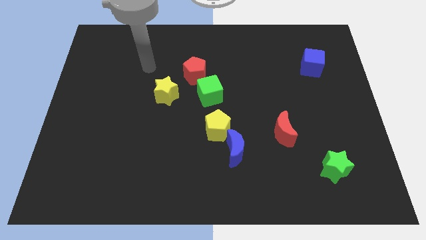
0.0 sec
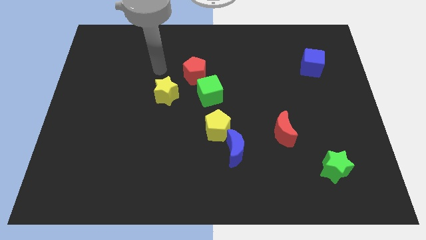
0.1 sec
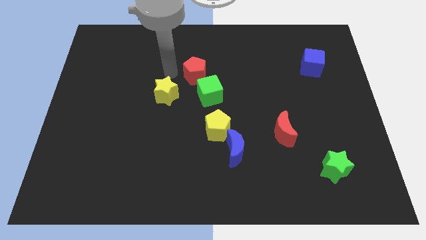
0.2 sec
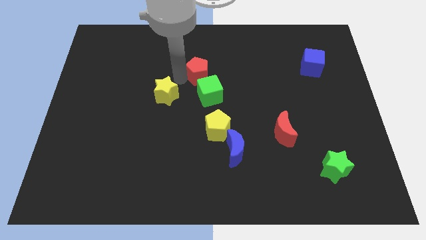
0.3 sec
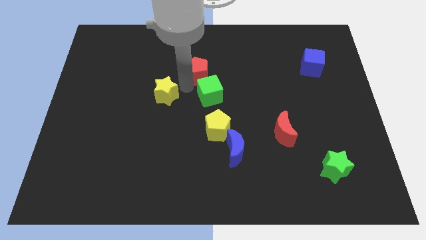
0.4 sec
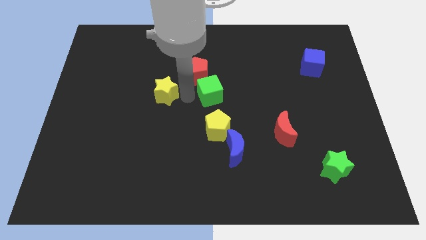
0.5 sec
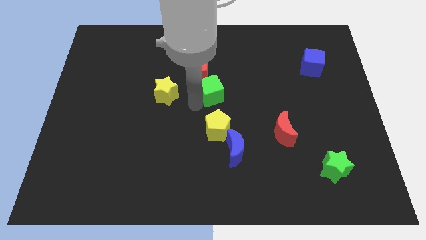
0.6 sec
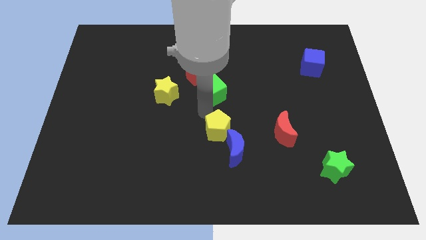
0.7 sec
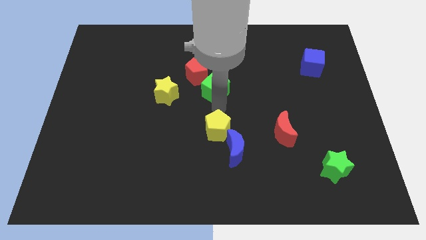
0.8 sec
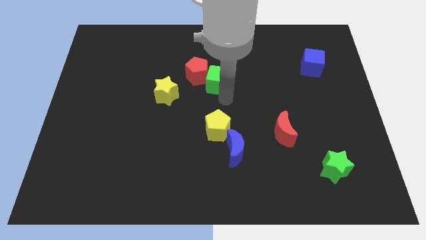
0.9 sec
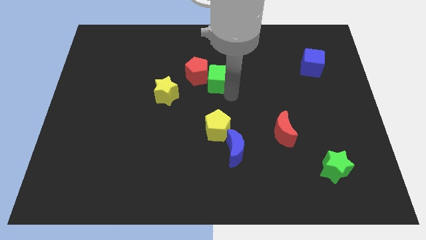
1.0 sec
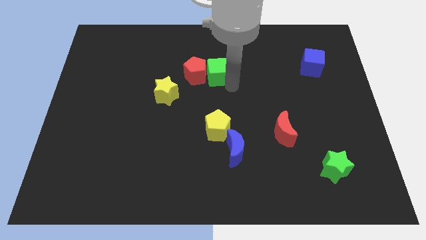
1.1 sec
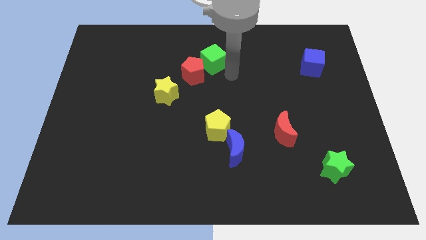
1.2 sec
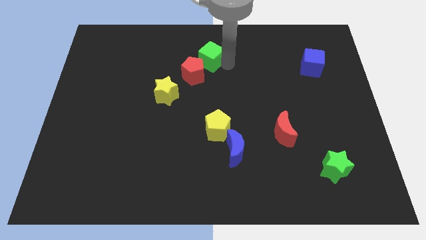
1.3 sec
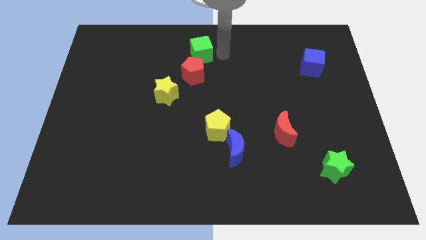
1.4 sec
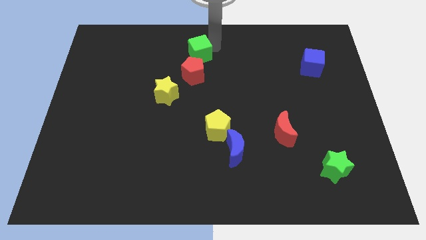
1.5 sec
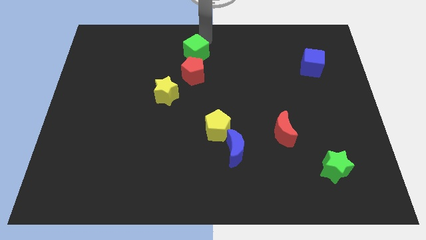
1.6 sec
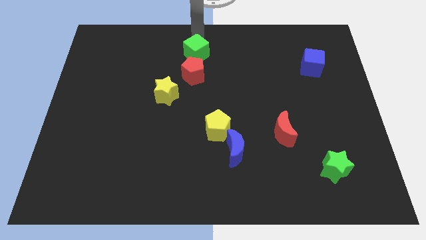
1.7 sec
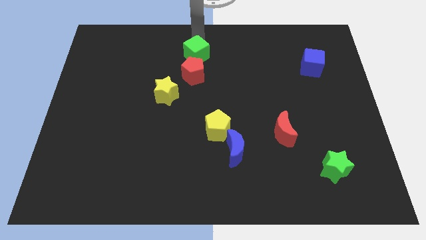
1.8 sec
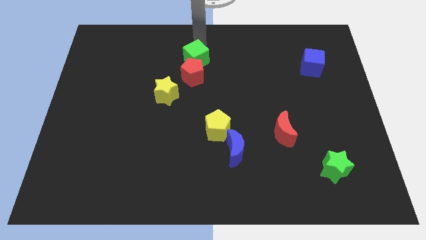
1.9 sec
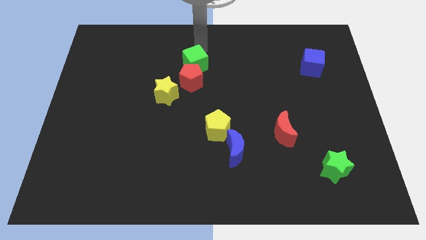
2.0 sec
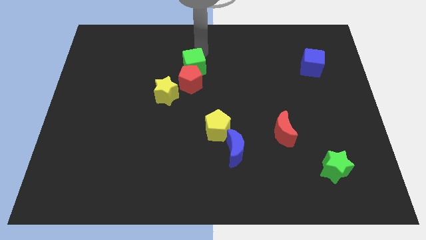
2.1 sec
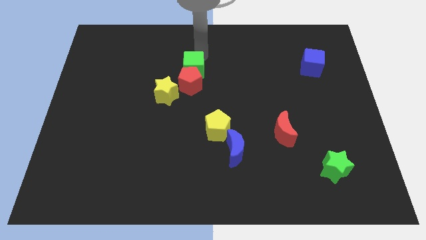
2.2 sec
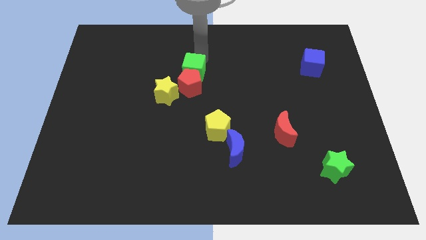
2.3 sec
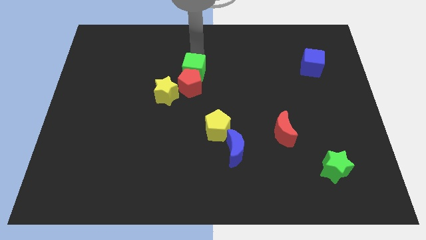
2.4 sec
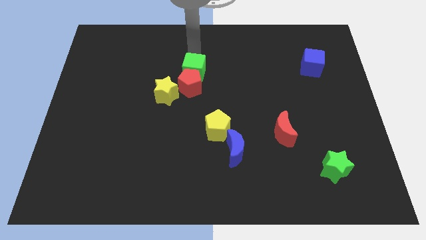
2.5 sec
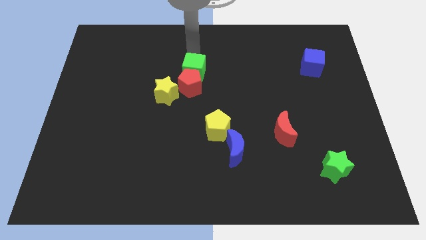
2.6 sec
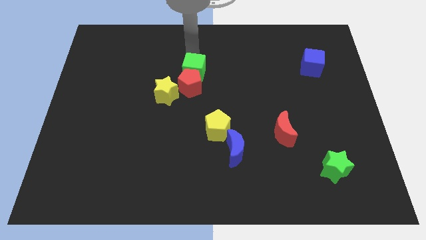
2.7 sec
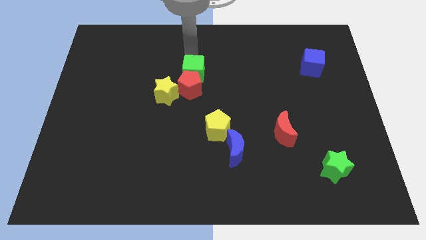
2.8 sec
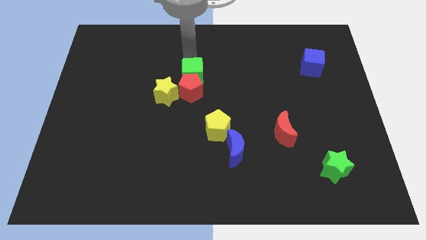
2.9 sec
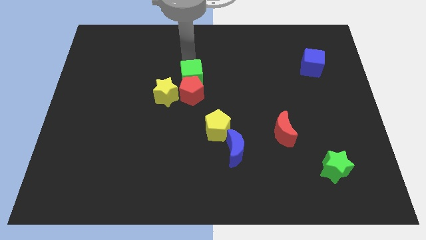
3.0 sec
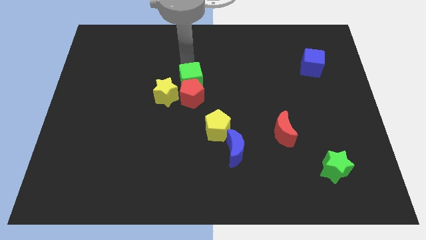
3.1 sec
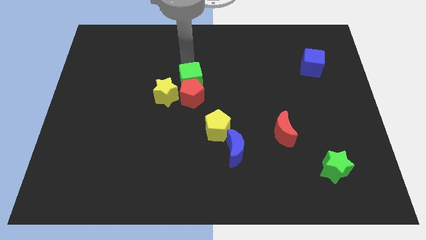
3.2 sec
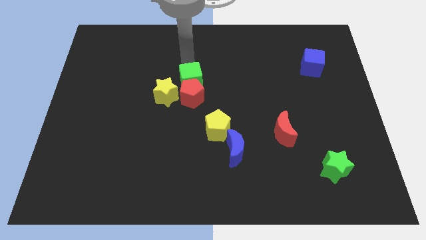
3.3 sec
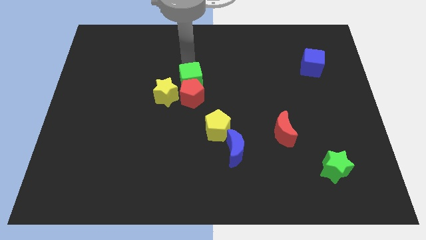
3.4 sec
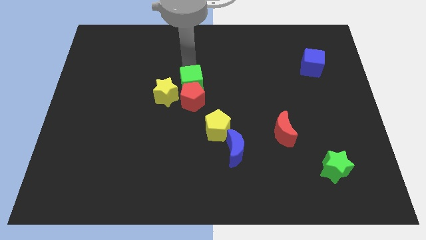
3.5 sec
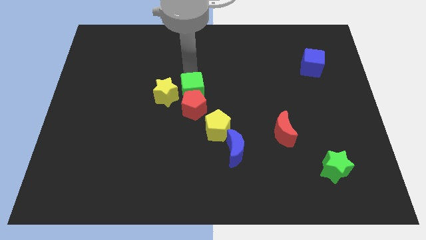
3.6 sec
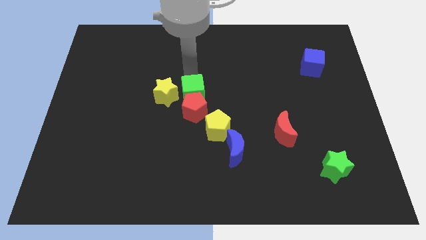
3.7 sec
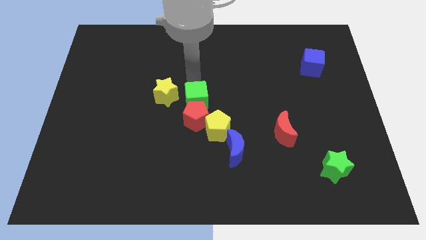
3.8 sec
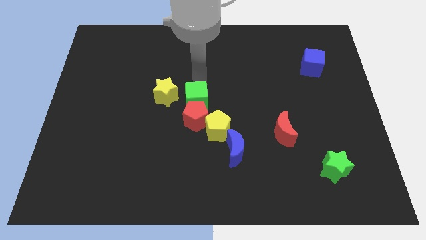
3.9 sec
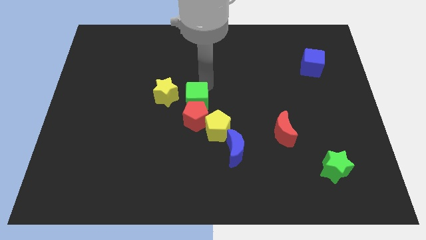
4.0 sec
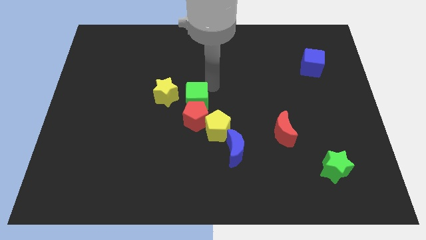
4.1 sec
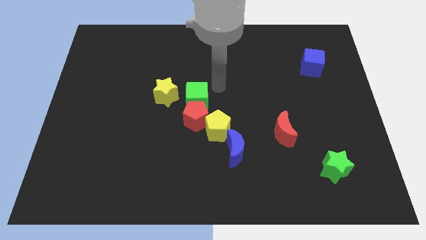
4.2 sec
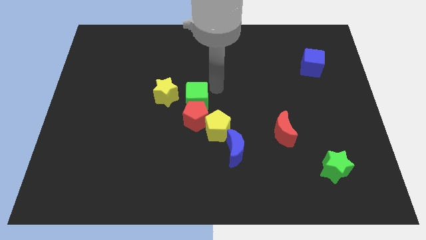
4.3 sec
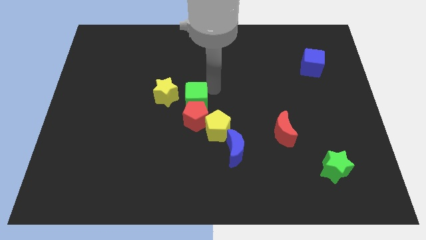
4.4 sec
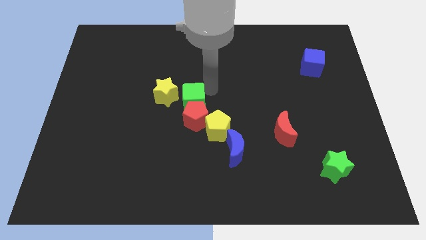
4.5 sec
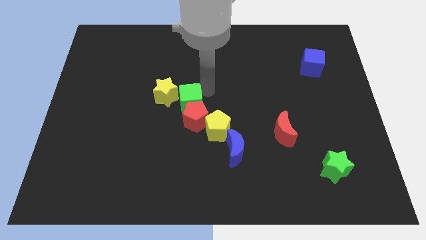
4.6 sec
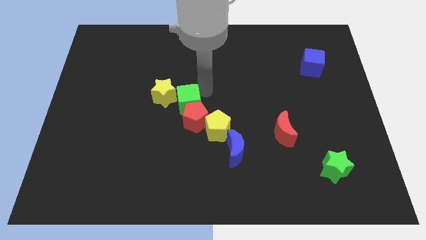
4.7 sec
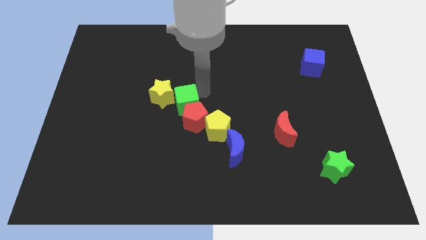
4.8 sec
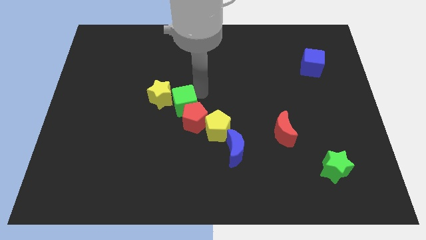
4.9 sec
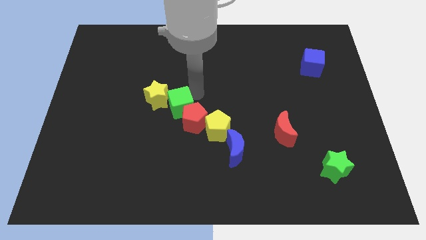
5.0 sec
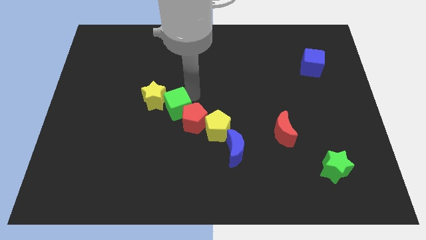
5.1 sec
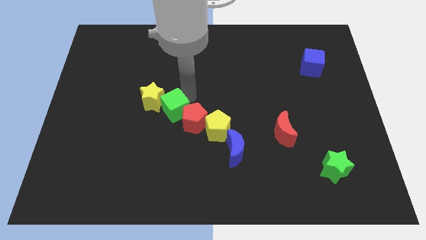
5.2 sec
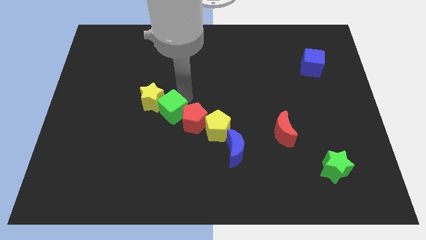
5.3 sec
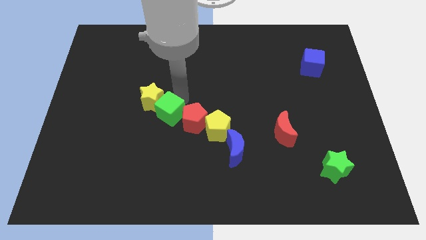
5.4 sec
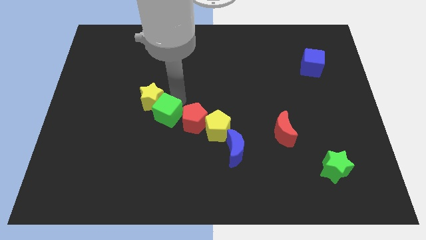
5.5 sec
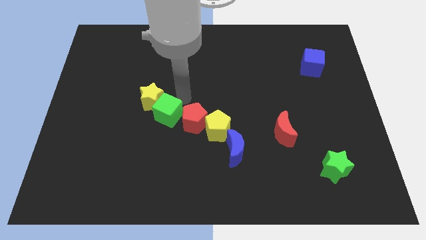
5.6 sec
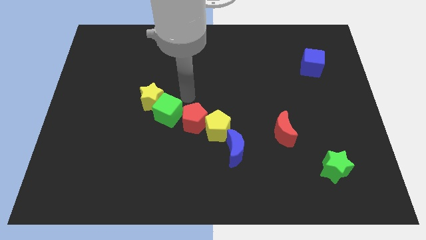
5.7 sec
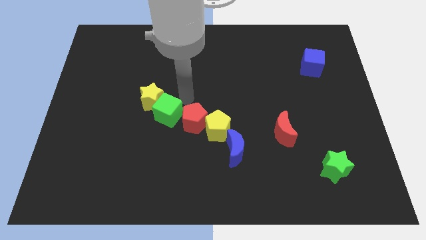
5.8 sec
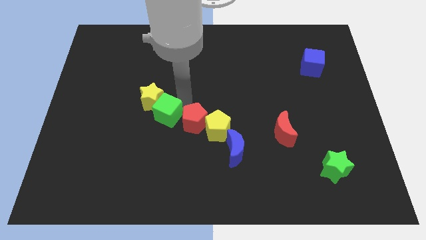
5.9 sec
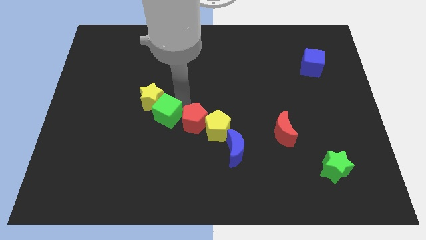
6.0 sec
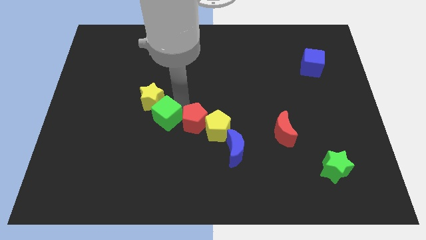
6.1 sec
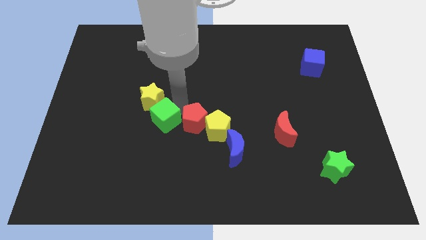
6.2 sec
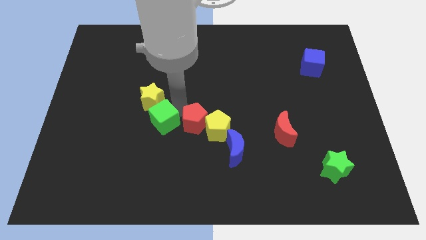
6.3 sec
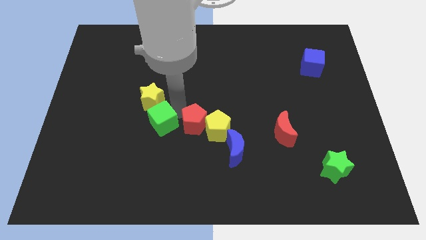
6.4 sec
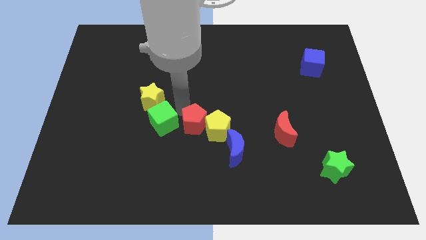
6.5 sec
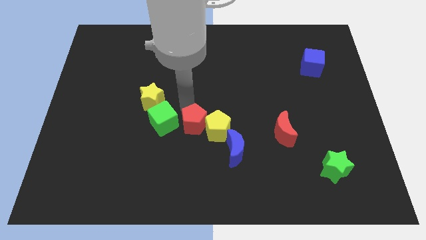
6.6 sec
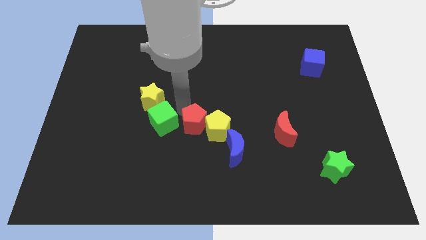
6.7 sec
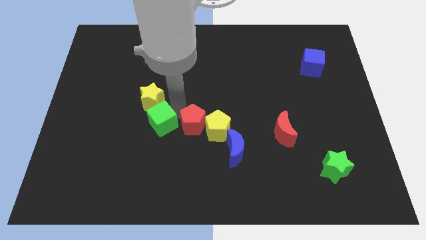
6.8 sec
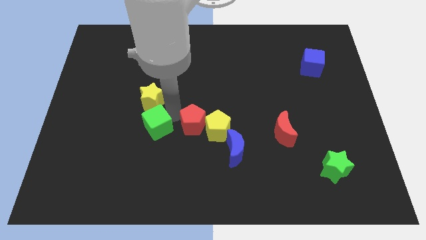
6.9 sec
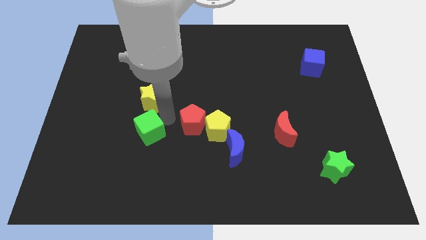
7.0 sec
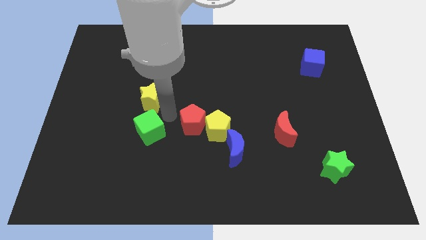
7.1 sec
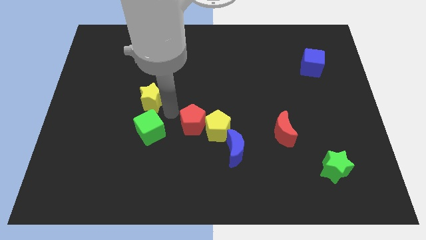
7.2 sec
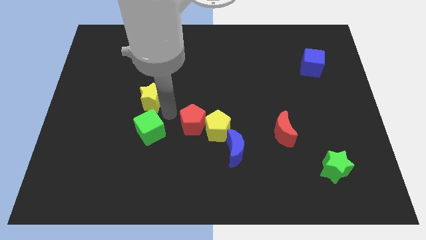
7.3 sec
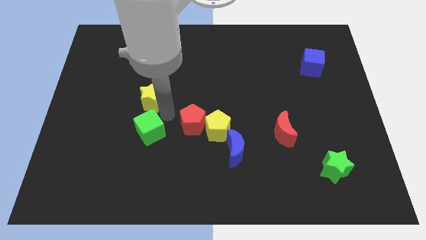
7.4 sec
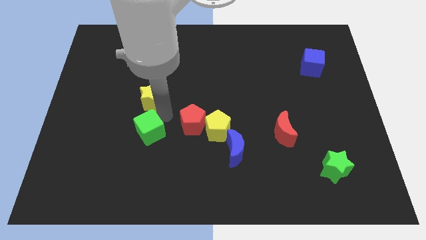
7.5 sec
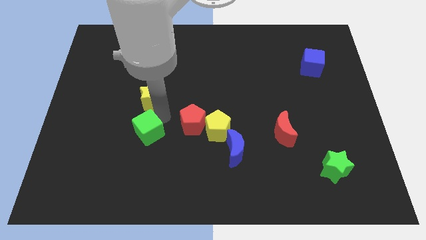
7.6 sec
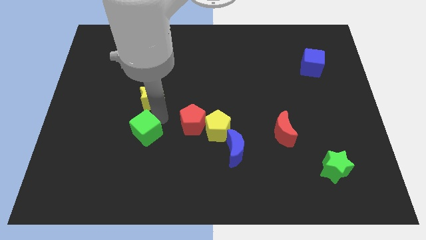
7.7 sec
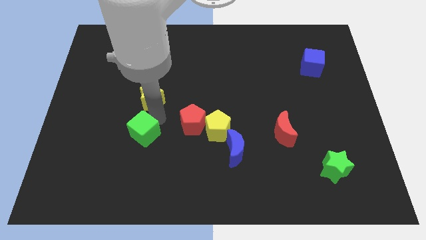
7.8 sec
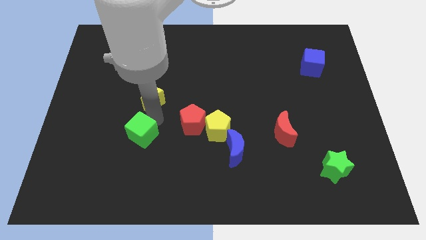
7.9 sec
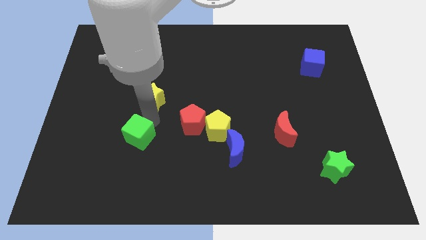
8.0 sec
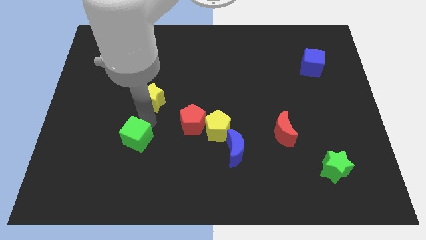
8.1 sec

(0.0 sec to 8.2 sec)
push the green cube down and left
